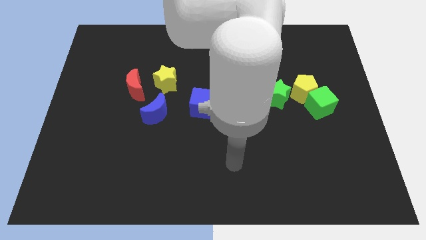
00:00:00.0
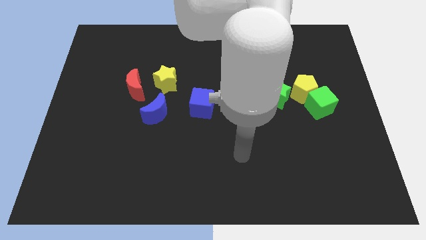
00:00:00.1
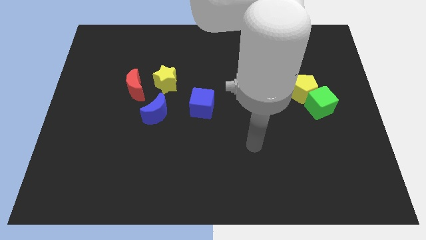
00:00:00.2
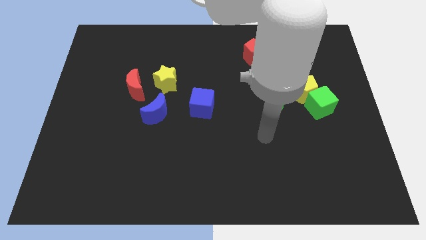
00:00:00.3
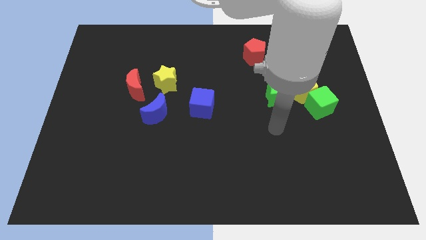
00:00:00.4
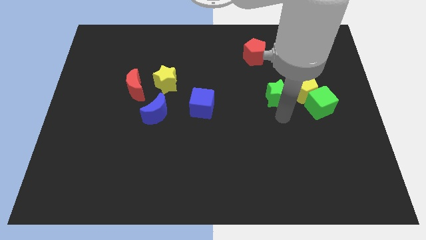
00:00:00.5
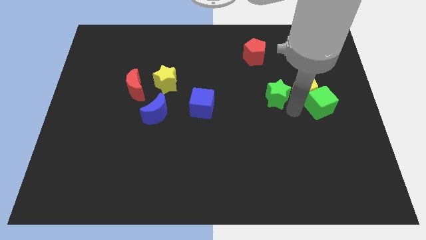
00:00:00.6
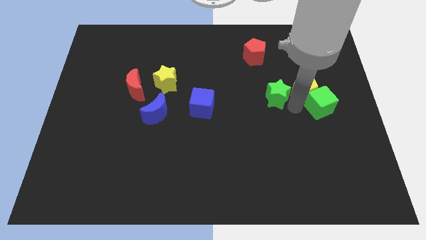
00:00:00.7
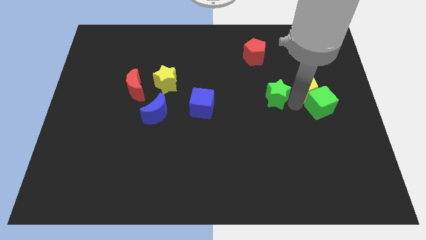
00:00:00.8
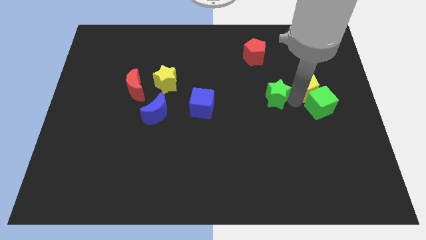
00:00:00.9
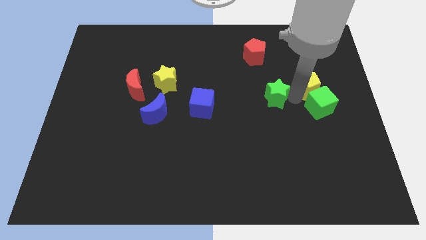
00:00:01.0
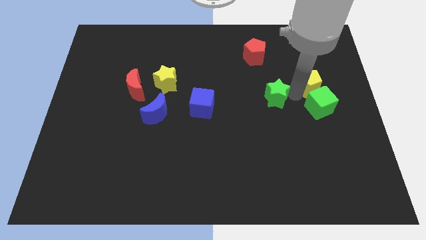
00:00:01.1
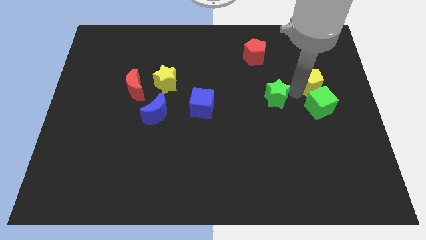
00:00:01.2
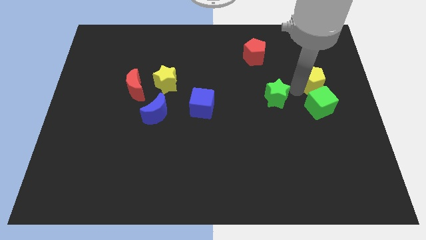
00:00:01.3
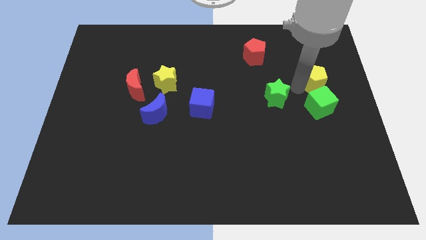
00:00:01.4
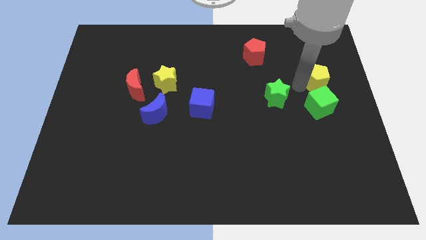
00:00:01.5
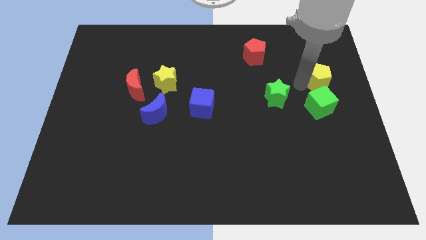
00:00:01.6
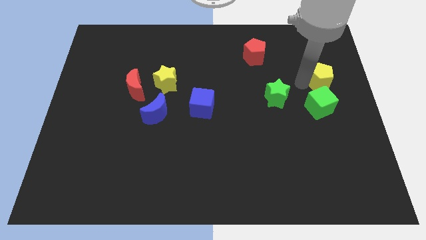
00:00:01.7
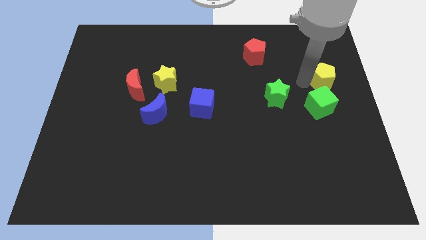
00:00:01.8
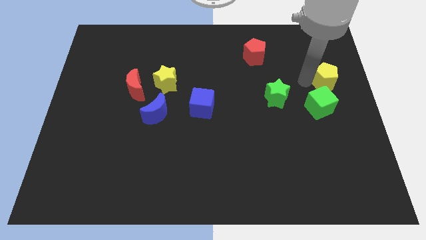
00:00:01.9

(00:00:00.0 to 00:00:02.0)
separate the yellow pentagon from the green cube and green star

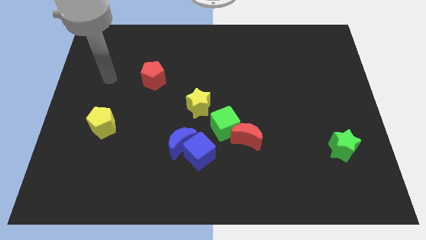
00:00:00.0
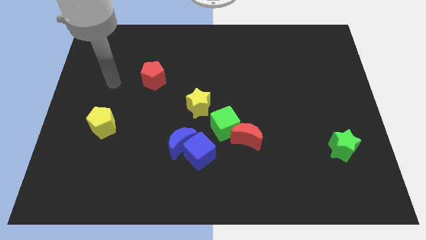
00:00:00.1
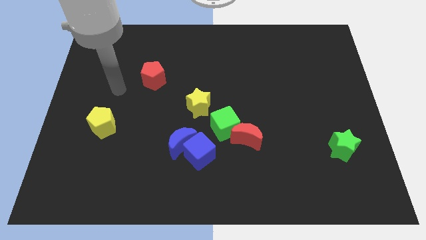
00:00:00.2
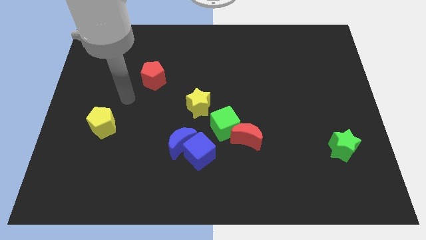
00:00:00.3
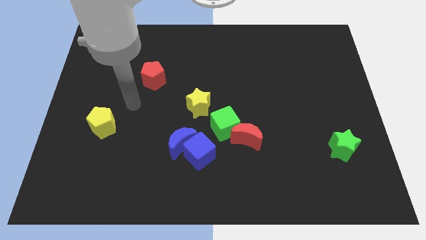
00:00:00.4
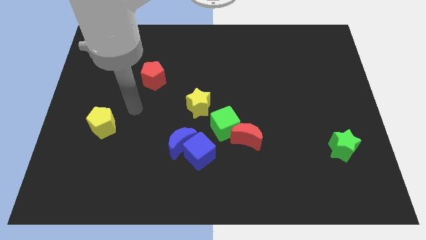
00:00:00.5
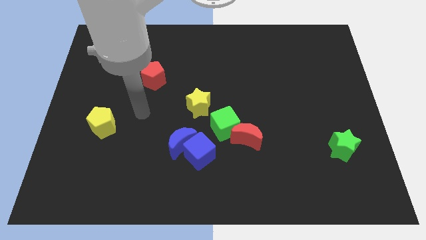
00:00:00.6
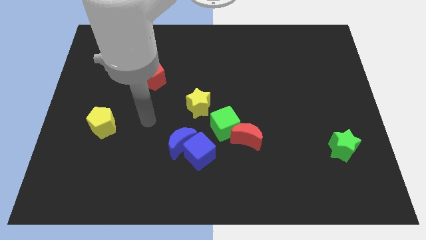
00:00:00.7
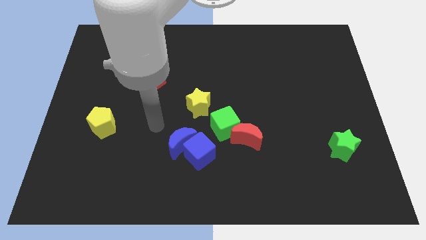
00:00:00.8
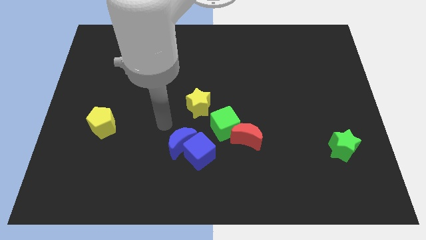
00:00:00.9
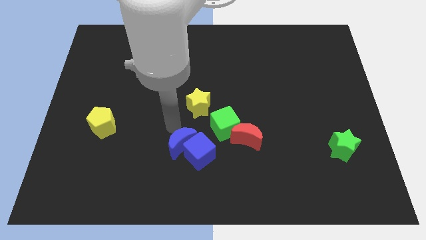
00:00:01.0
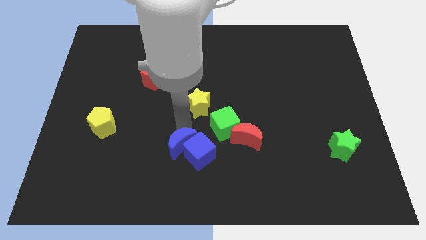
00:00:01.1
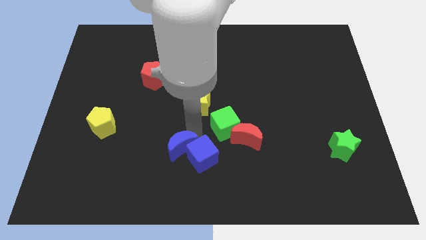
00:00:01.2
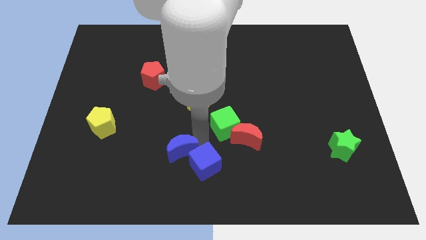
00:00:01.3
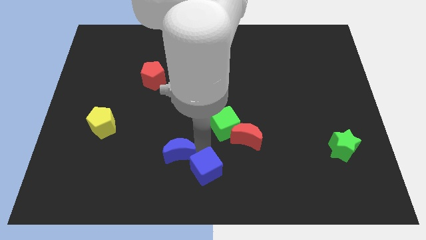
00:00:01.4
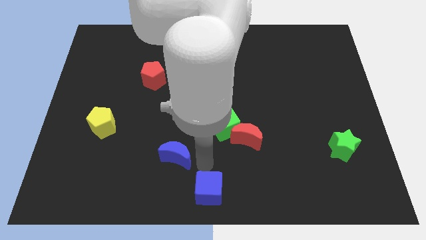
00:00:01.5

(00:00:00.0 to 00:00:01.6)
move the blue moon away from the blue cube

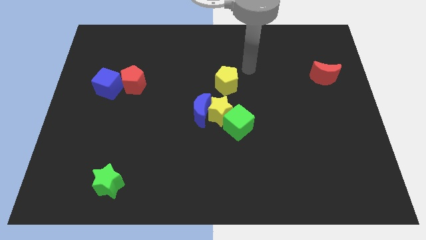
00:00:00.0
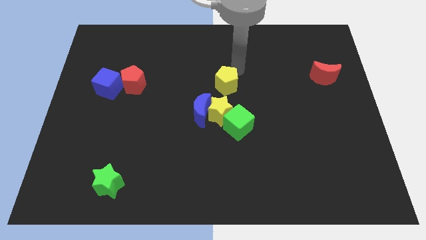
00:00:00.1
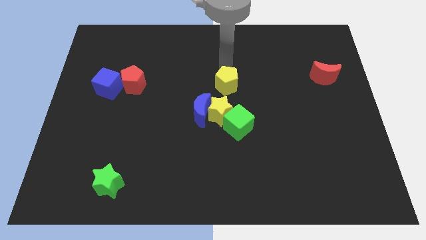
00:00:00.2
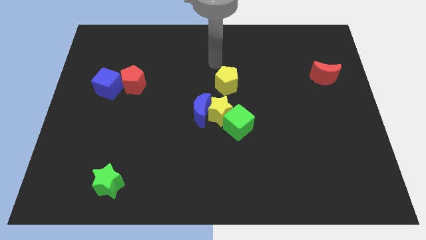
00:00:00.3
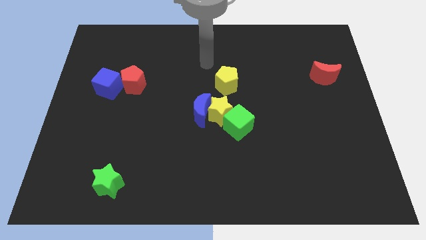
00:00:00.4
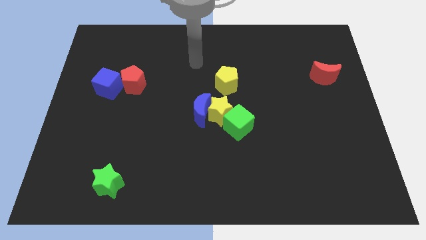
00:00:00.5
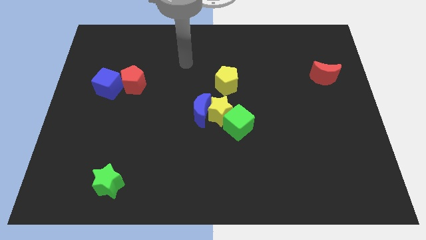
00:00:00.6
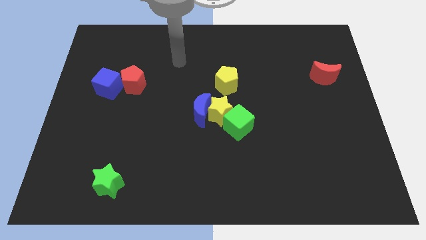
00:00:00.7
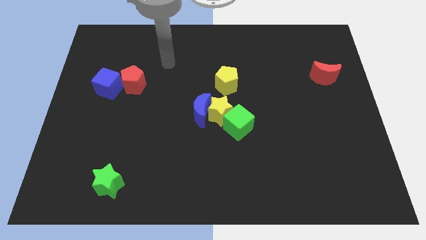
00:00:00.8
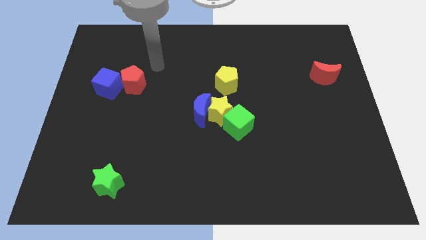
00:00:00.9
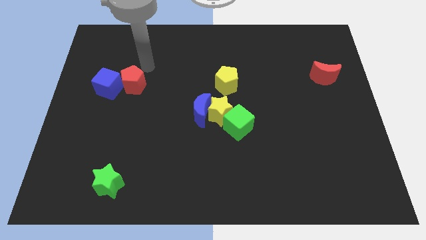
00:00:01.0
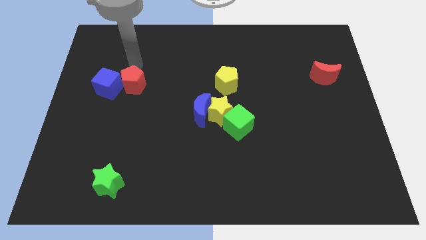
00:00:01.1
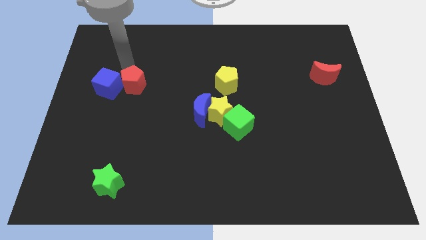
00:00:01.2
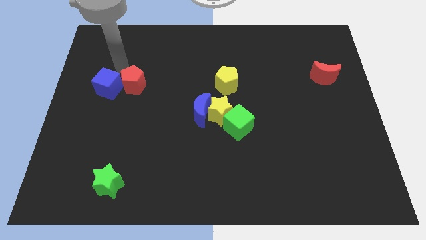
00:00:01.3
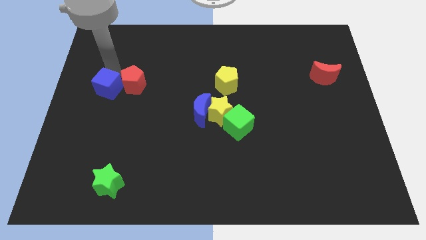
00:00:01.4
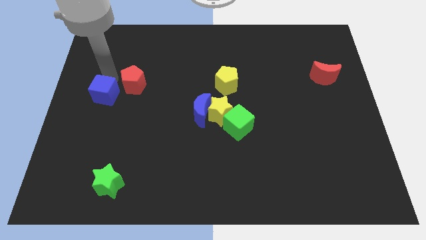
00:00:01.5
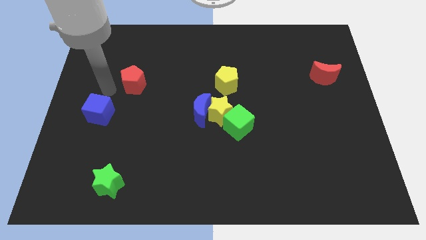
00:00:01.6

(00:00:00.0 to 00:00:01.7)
move the red pentagon away from the blue cube

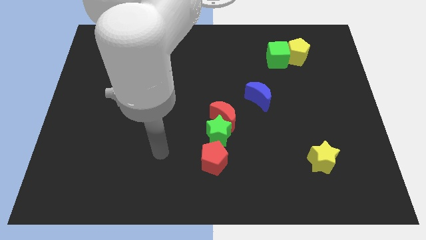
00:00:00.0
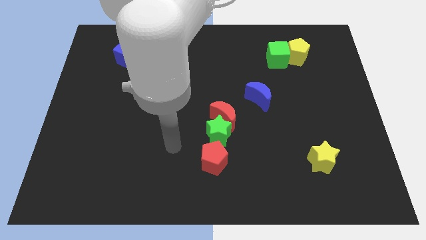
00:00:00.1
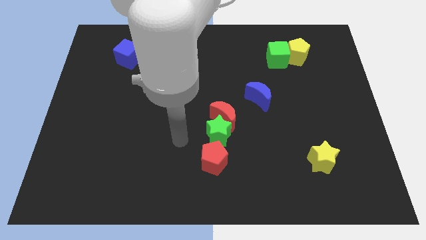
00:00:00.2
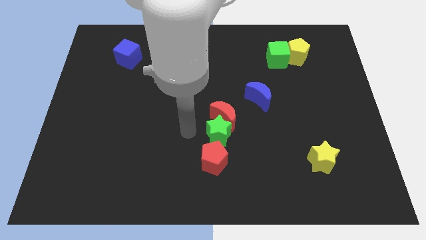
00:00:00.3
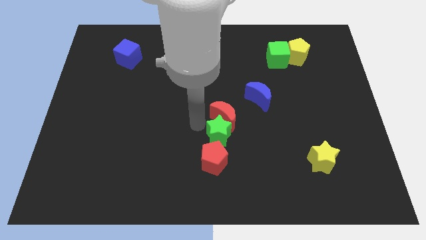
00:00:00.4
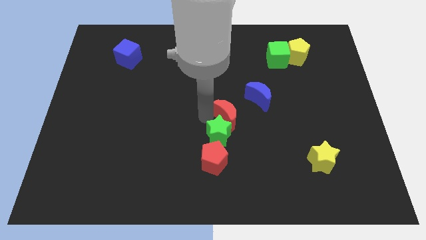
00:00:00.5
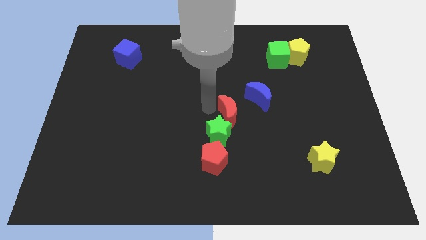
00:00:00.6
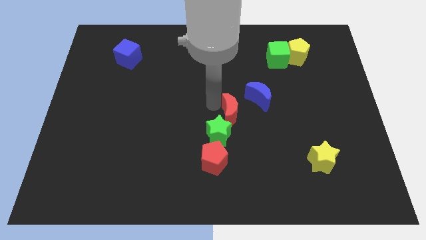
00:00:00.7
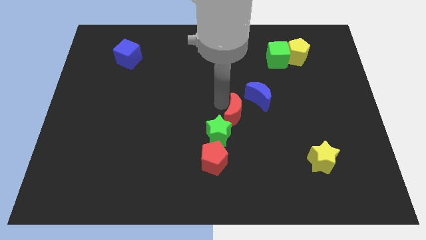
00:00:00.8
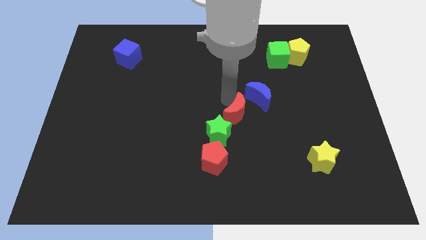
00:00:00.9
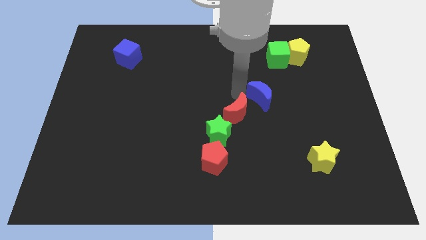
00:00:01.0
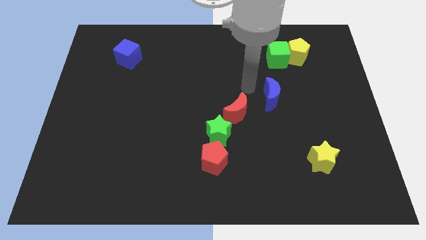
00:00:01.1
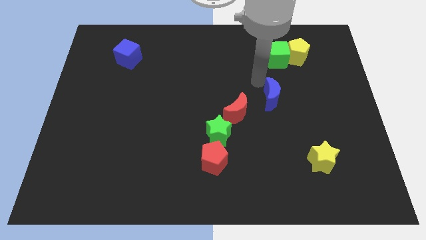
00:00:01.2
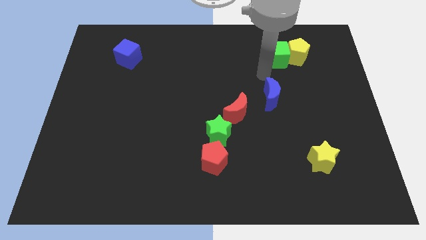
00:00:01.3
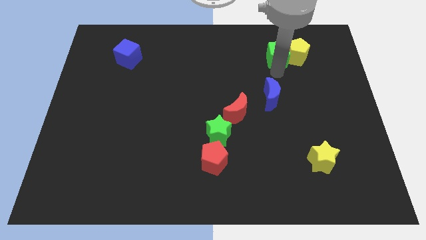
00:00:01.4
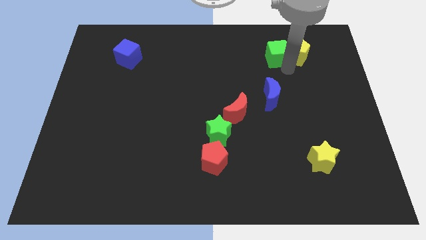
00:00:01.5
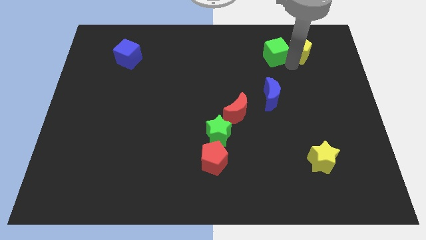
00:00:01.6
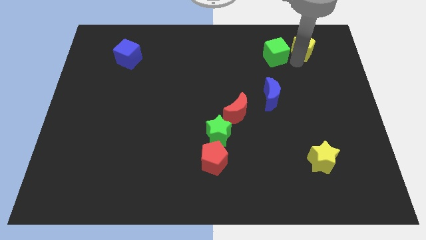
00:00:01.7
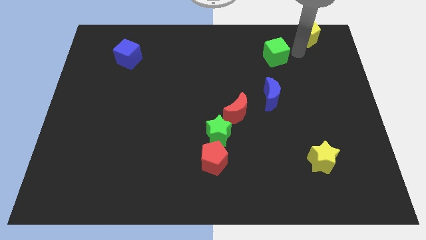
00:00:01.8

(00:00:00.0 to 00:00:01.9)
move the green cube away from the yellow pentagon

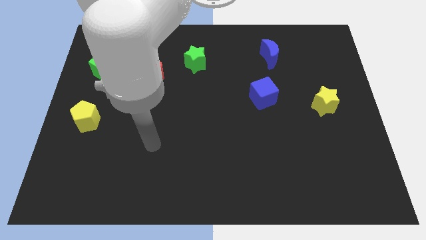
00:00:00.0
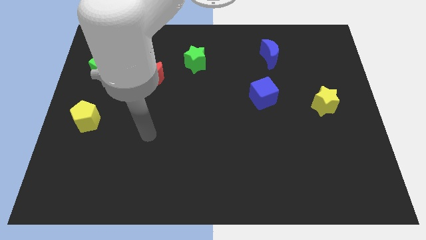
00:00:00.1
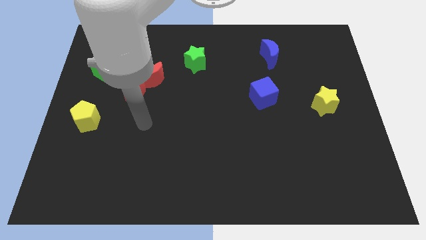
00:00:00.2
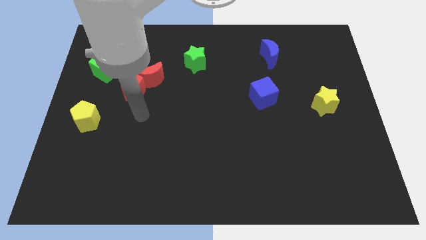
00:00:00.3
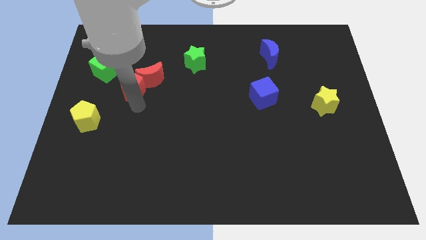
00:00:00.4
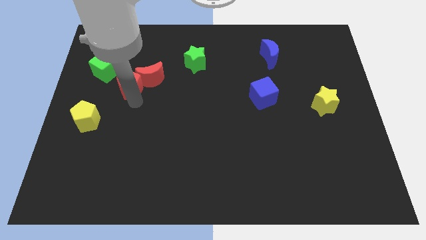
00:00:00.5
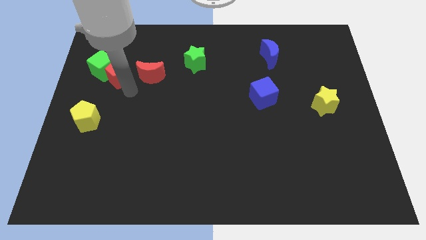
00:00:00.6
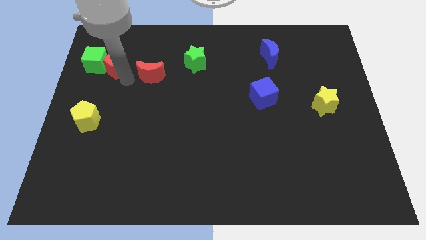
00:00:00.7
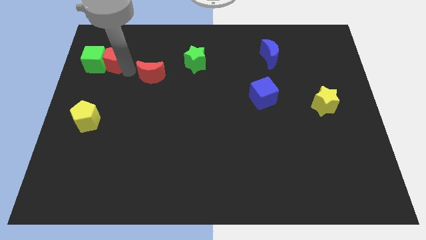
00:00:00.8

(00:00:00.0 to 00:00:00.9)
move the red moon away from the red pentagon

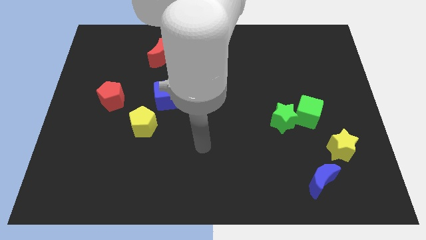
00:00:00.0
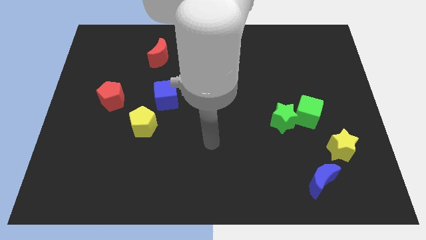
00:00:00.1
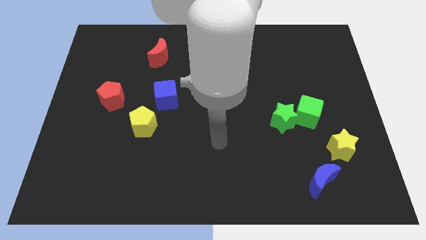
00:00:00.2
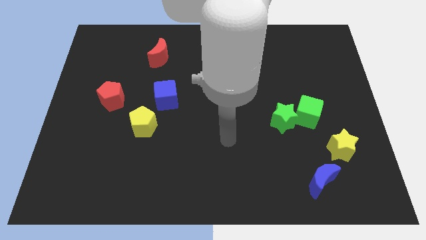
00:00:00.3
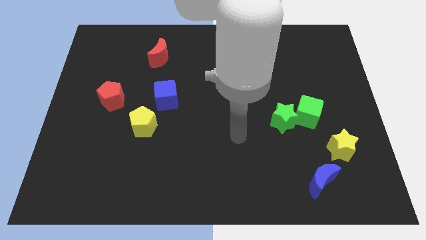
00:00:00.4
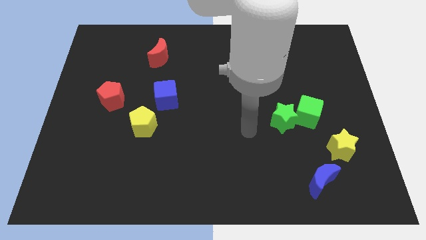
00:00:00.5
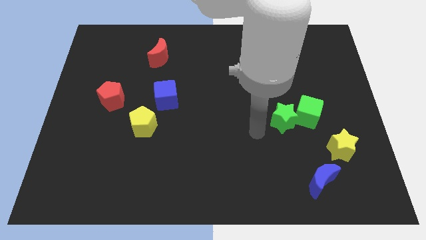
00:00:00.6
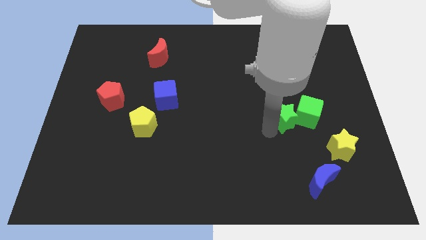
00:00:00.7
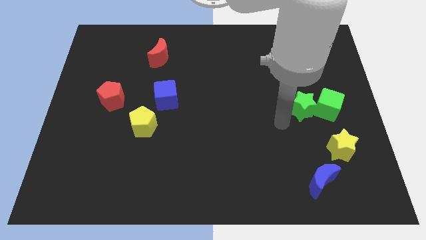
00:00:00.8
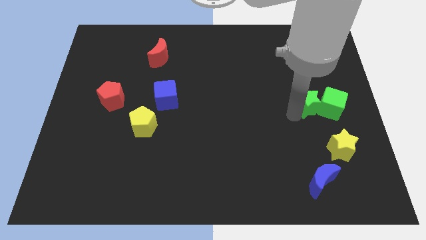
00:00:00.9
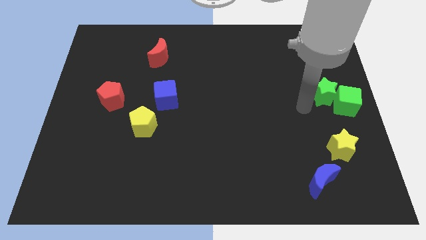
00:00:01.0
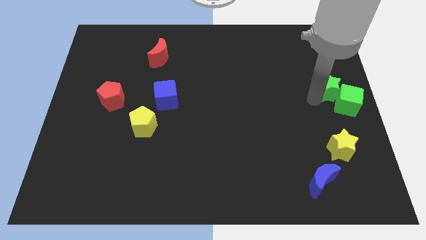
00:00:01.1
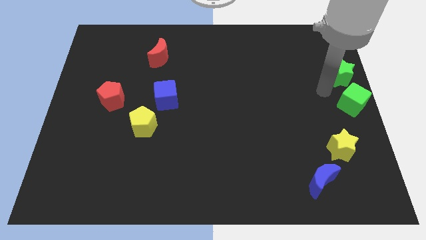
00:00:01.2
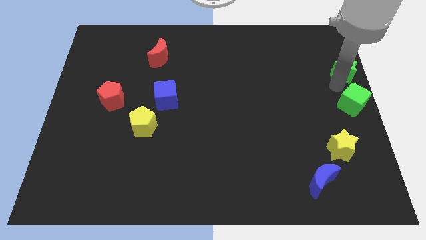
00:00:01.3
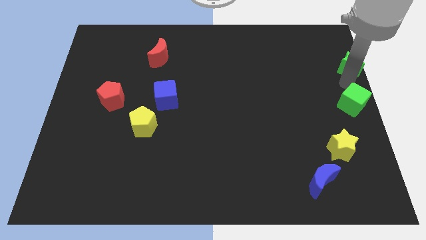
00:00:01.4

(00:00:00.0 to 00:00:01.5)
move the green cube away from the green star
